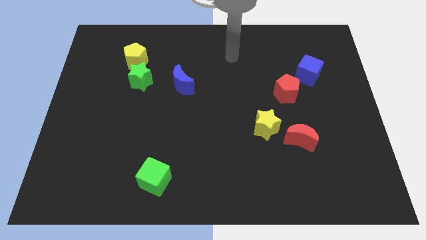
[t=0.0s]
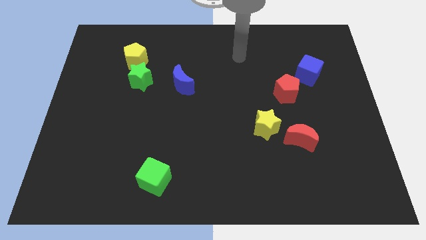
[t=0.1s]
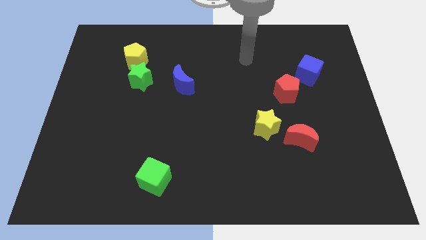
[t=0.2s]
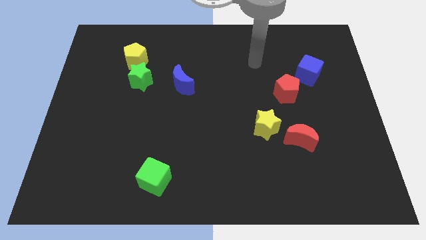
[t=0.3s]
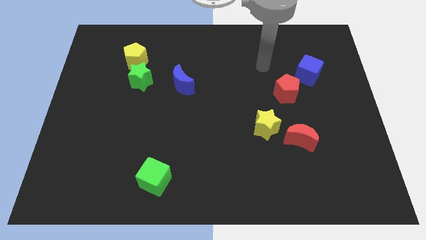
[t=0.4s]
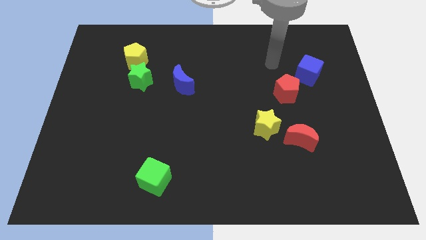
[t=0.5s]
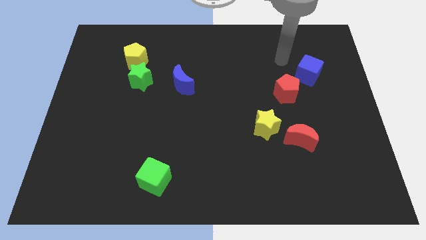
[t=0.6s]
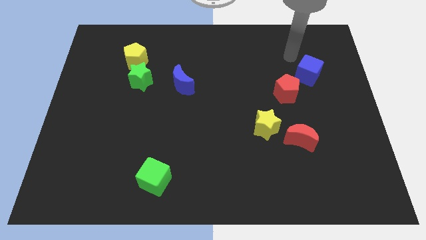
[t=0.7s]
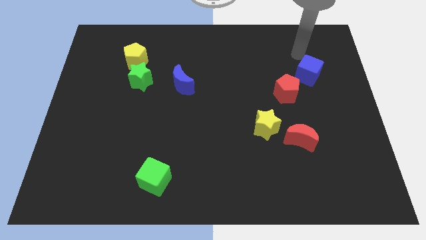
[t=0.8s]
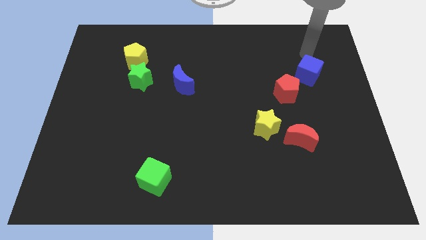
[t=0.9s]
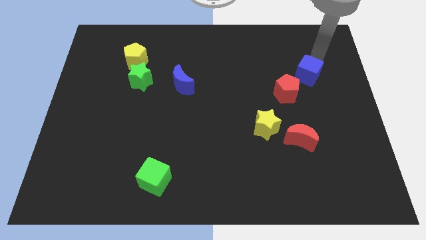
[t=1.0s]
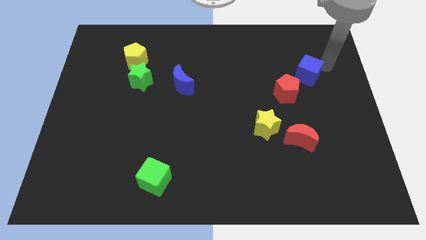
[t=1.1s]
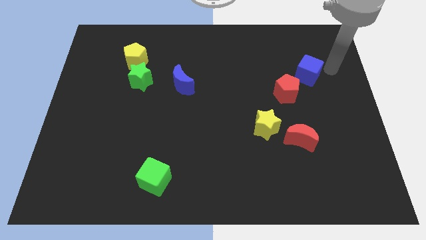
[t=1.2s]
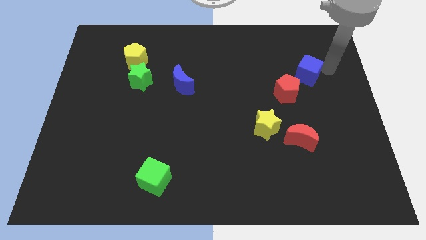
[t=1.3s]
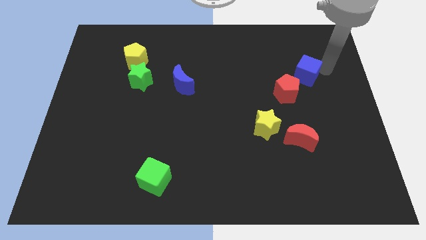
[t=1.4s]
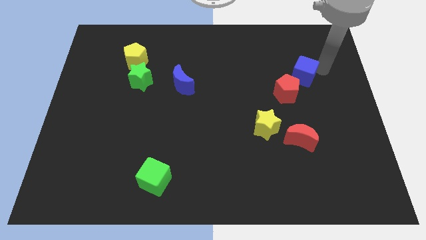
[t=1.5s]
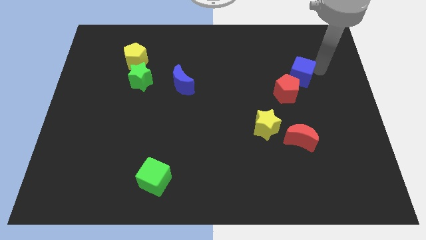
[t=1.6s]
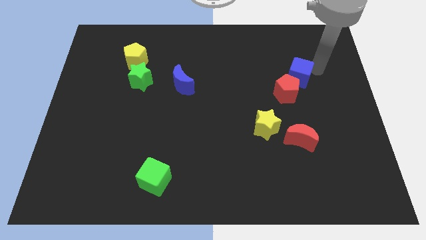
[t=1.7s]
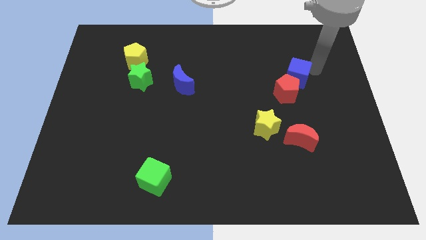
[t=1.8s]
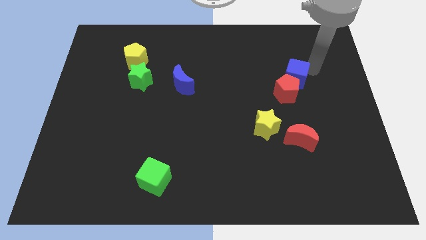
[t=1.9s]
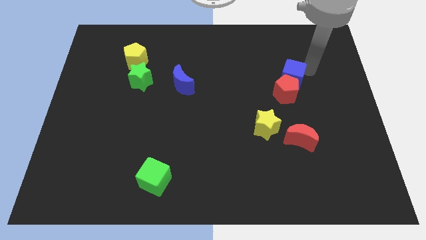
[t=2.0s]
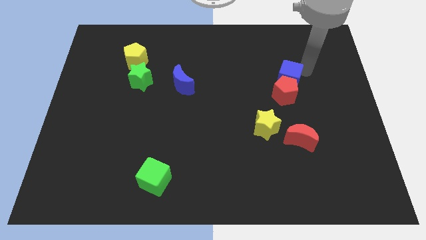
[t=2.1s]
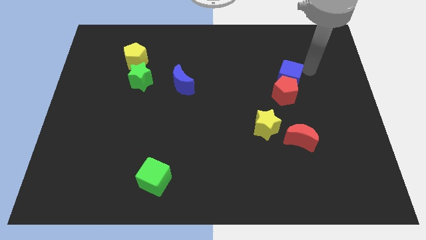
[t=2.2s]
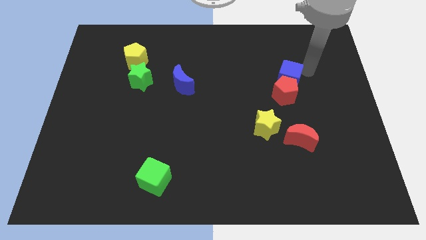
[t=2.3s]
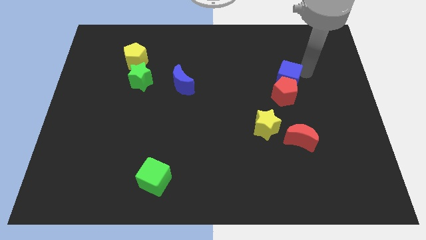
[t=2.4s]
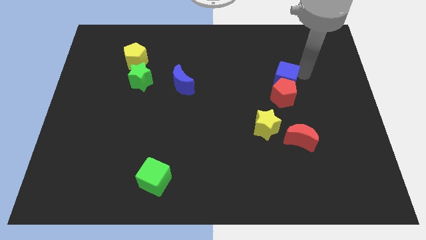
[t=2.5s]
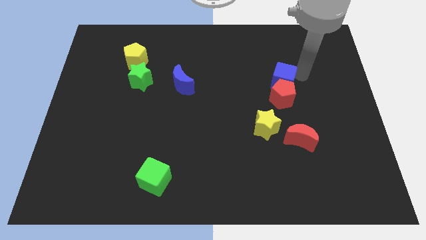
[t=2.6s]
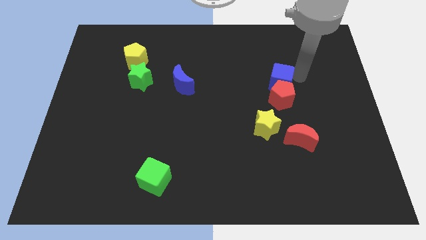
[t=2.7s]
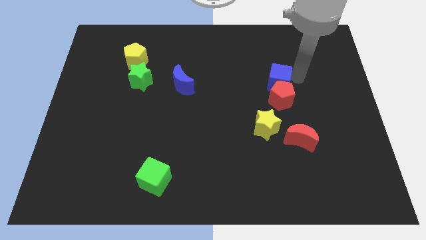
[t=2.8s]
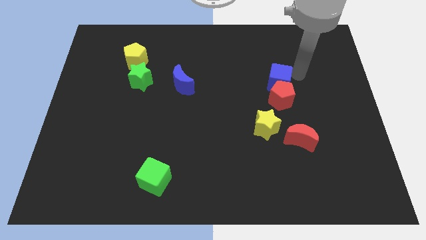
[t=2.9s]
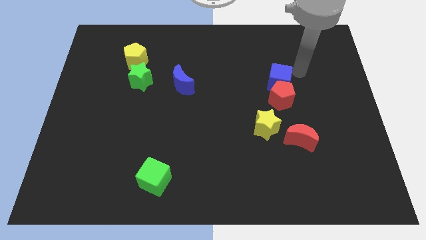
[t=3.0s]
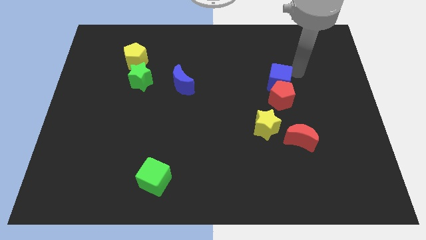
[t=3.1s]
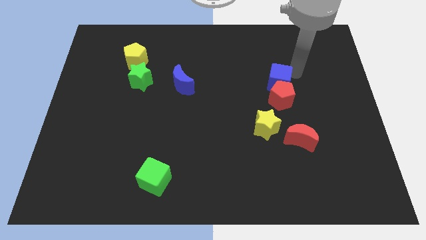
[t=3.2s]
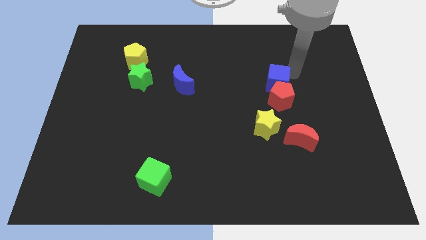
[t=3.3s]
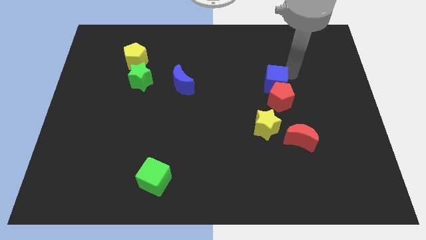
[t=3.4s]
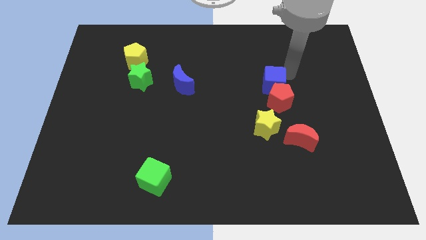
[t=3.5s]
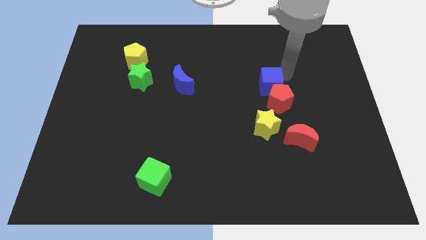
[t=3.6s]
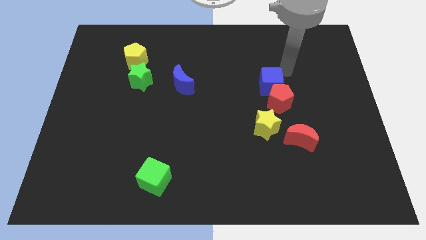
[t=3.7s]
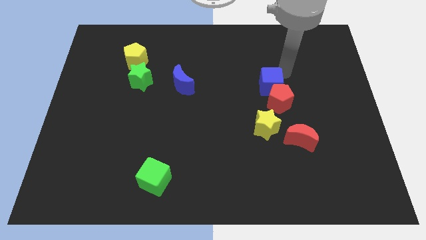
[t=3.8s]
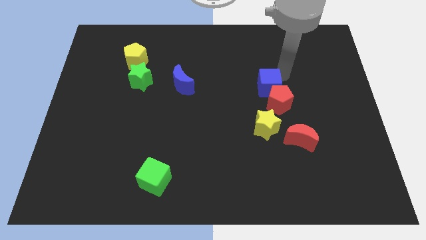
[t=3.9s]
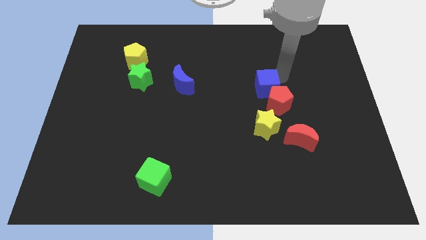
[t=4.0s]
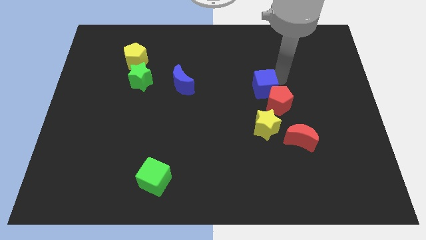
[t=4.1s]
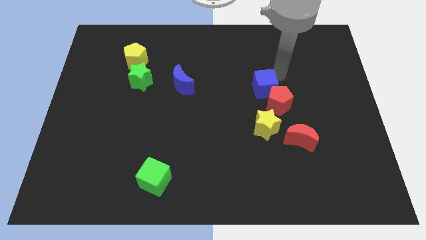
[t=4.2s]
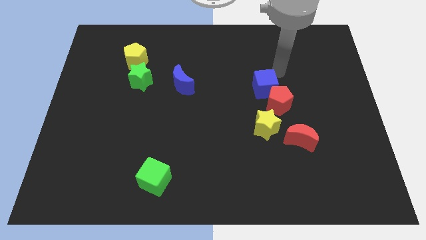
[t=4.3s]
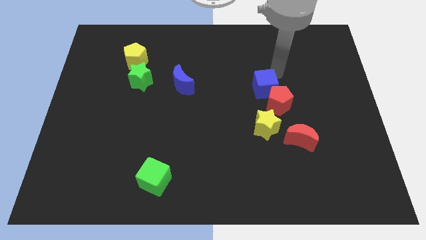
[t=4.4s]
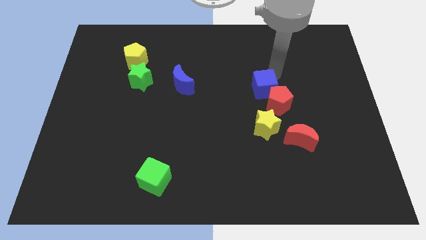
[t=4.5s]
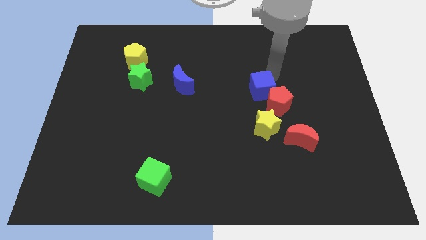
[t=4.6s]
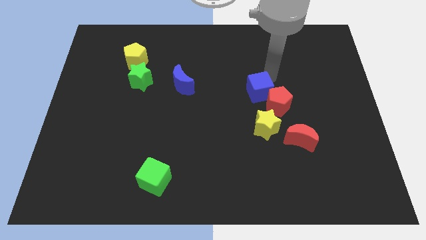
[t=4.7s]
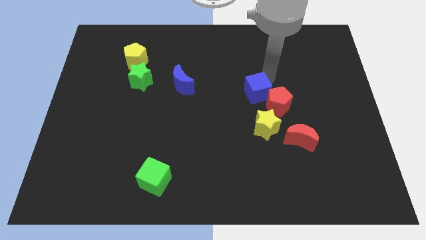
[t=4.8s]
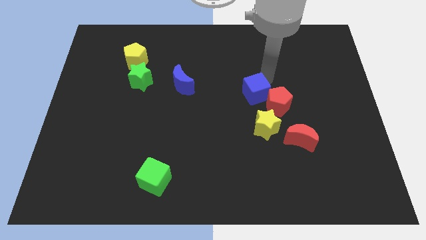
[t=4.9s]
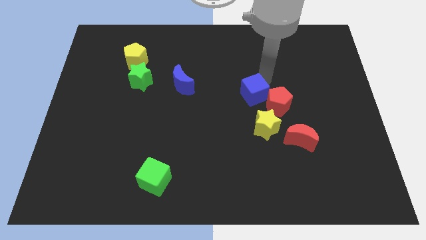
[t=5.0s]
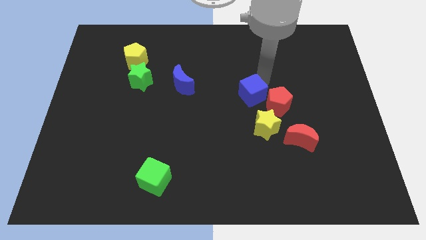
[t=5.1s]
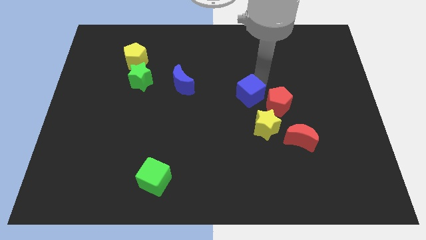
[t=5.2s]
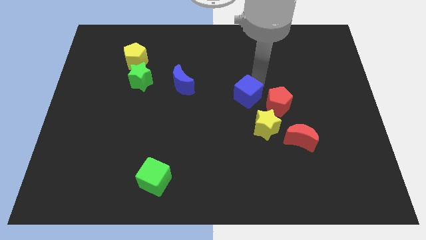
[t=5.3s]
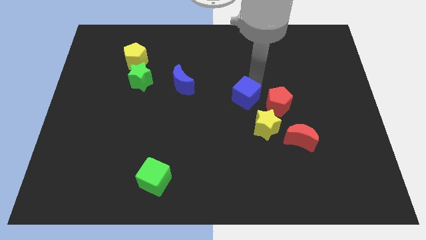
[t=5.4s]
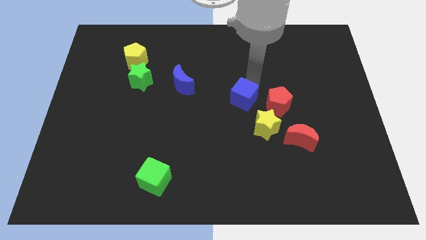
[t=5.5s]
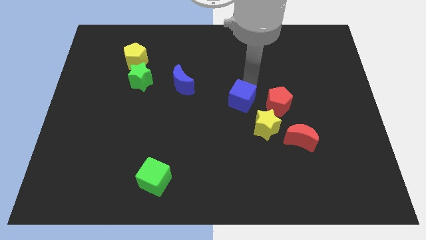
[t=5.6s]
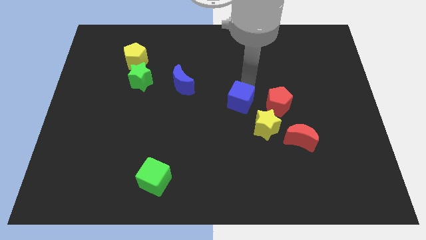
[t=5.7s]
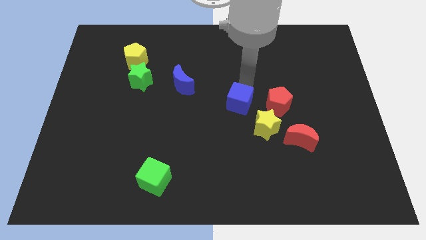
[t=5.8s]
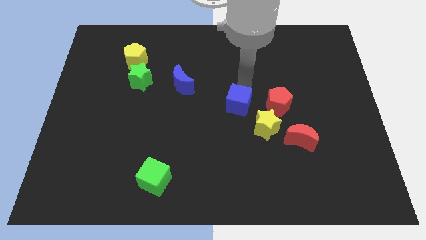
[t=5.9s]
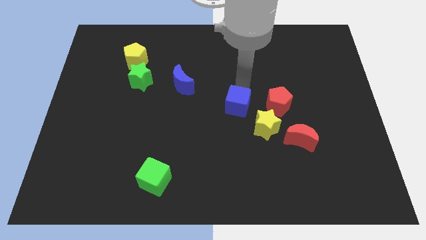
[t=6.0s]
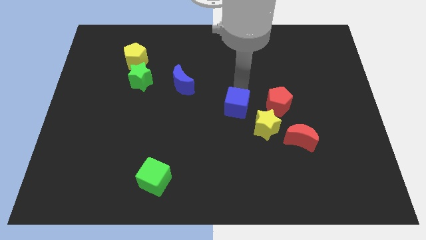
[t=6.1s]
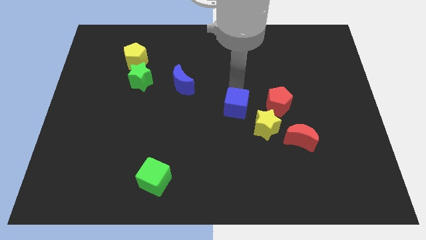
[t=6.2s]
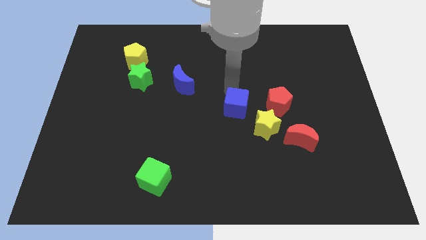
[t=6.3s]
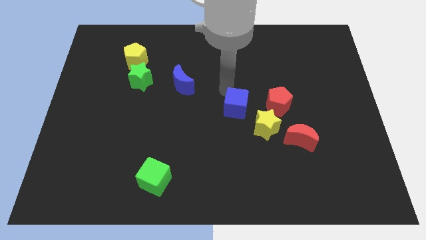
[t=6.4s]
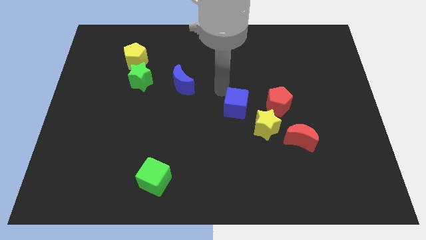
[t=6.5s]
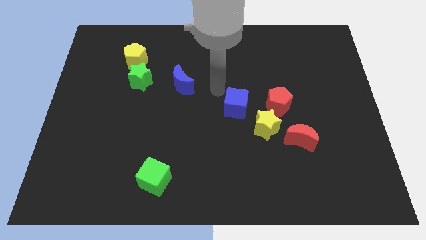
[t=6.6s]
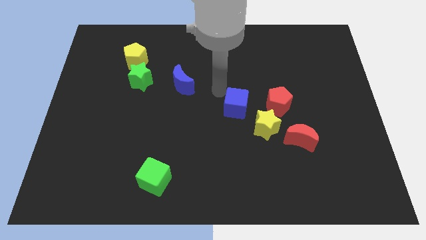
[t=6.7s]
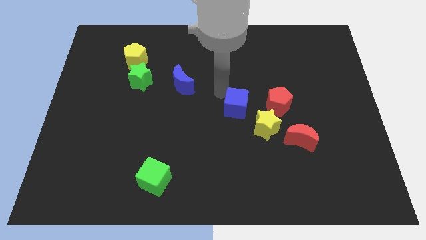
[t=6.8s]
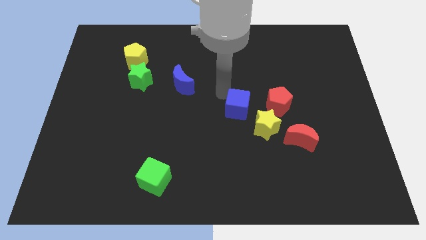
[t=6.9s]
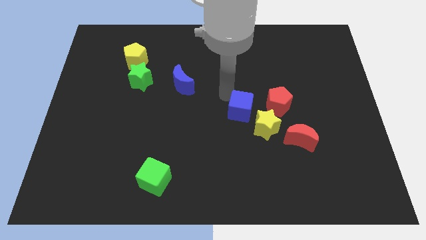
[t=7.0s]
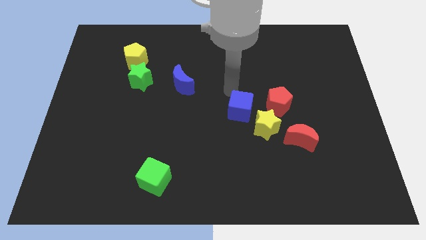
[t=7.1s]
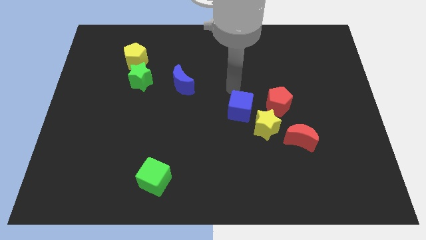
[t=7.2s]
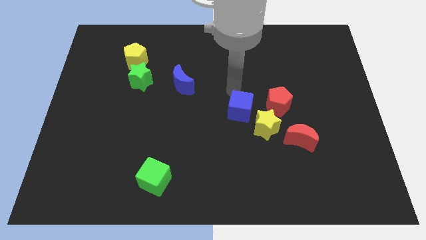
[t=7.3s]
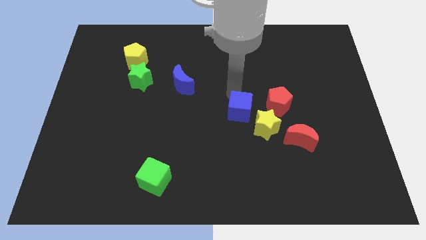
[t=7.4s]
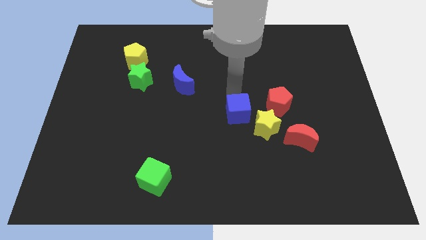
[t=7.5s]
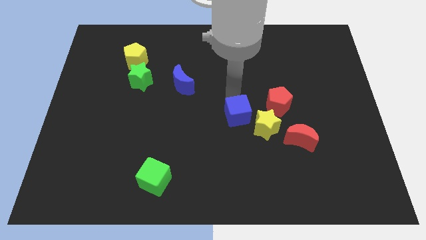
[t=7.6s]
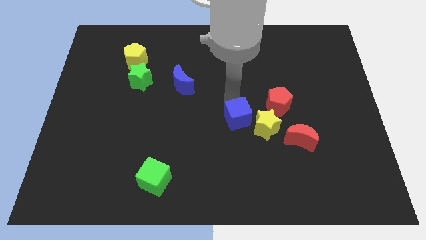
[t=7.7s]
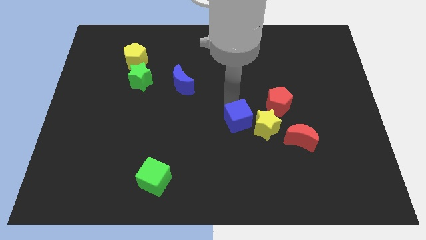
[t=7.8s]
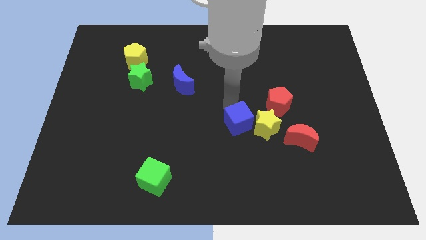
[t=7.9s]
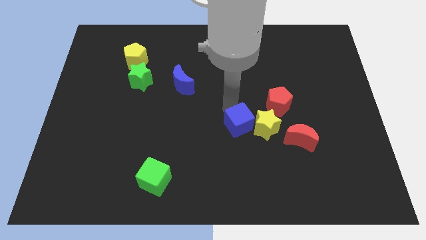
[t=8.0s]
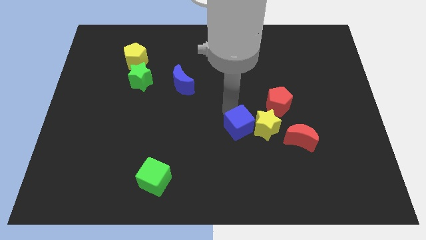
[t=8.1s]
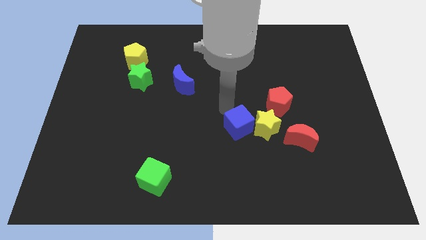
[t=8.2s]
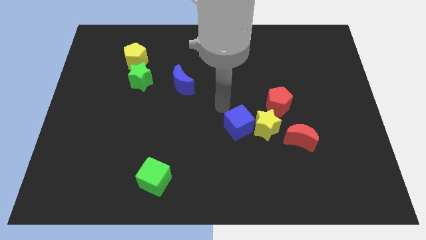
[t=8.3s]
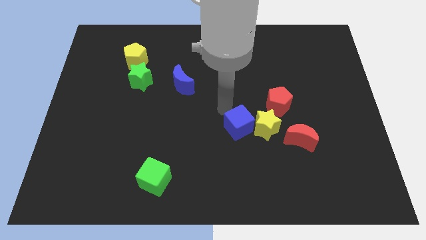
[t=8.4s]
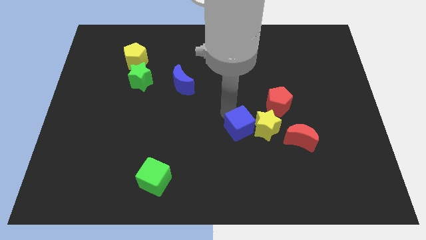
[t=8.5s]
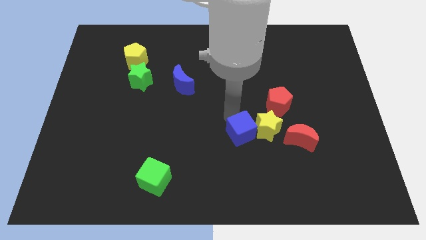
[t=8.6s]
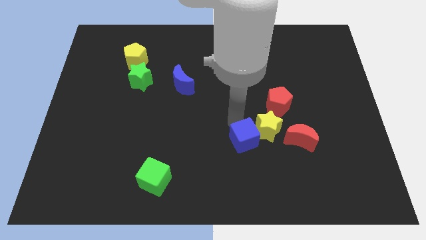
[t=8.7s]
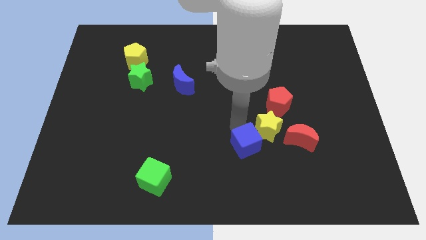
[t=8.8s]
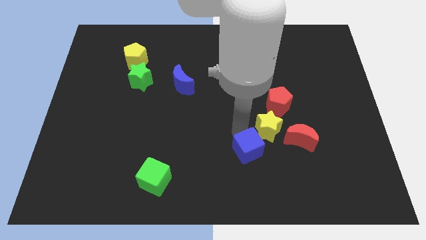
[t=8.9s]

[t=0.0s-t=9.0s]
move the blue cube below the yellow star
